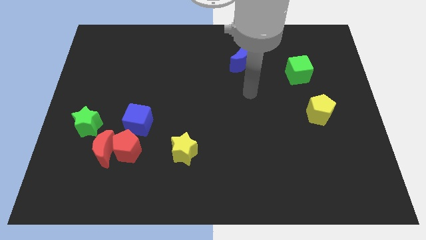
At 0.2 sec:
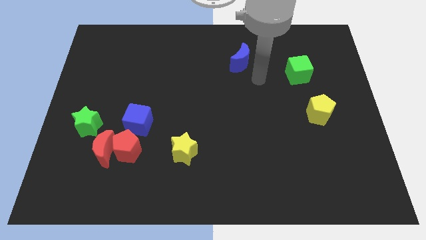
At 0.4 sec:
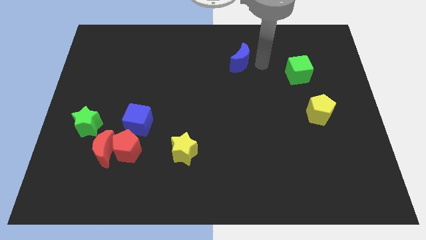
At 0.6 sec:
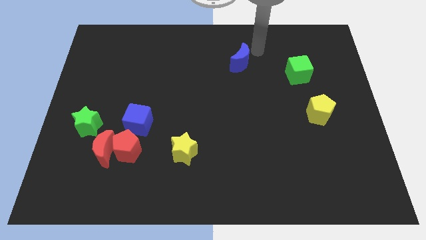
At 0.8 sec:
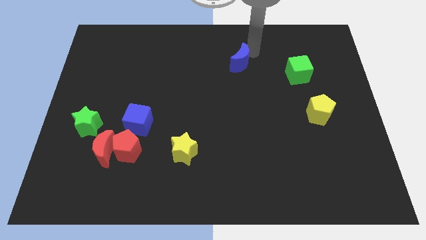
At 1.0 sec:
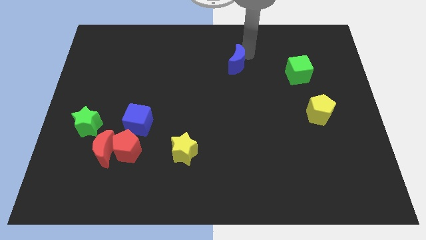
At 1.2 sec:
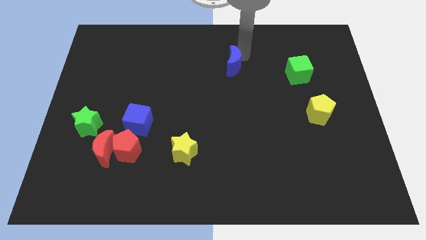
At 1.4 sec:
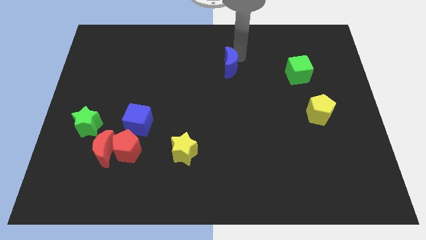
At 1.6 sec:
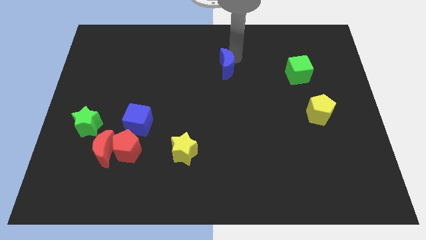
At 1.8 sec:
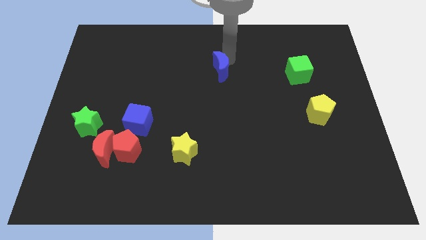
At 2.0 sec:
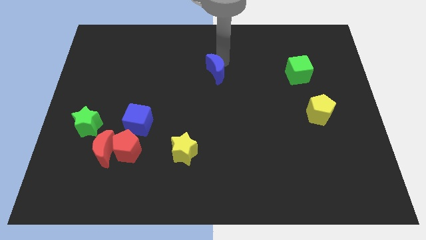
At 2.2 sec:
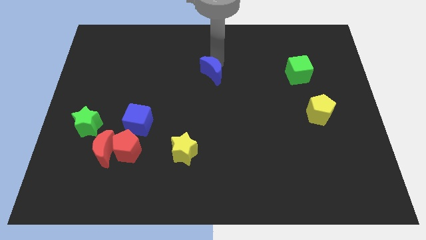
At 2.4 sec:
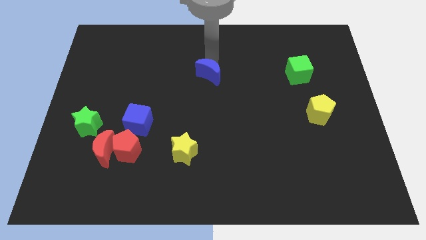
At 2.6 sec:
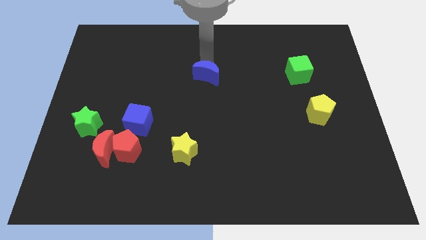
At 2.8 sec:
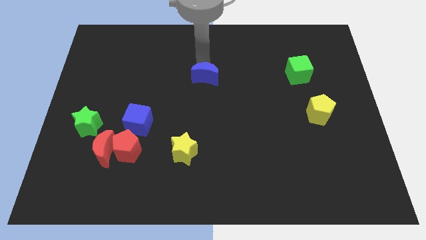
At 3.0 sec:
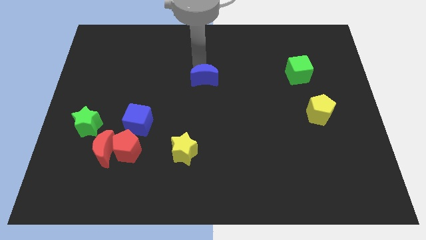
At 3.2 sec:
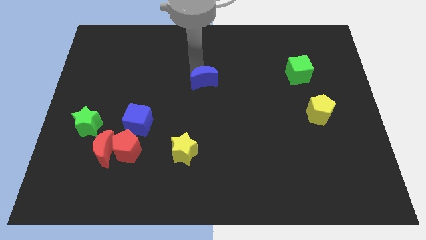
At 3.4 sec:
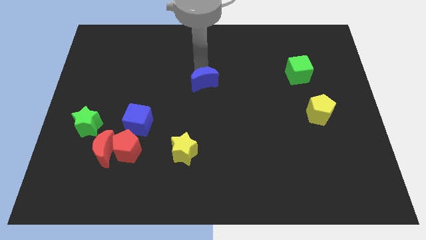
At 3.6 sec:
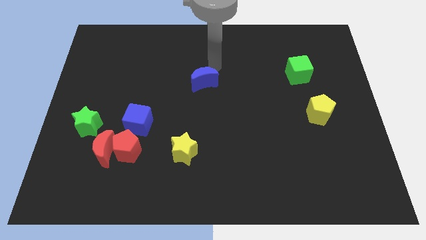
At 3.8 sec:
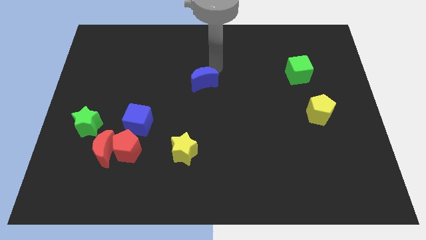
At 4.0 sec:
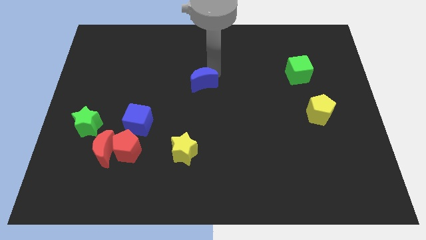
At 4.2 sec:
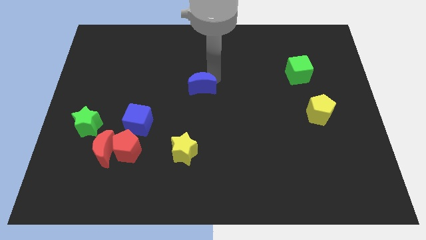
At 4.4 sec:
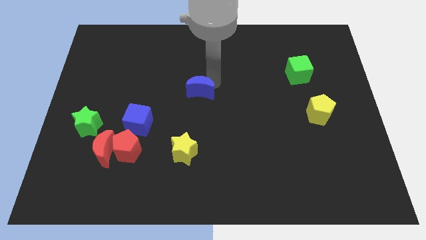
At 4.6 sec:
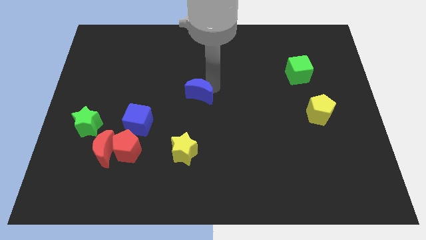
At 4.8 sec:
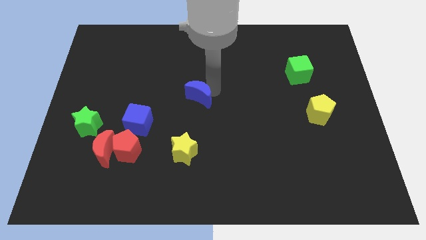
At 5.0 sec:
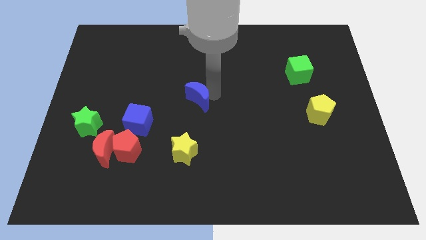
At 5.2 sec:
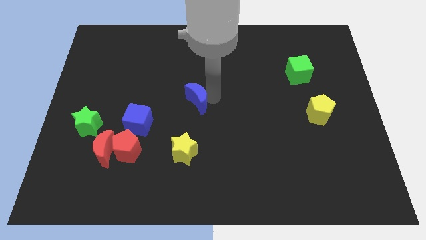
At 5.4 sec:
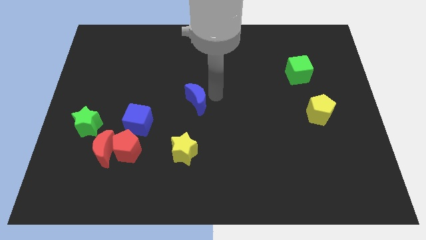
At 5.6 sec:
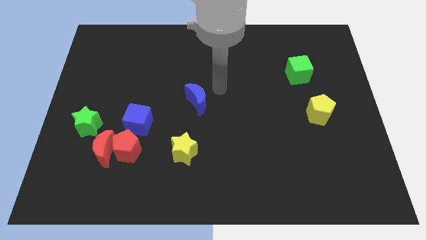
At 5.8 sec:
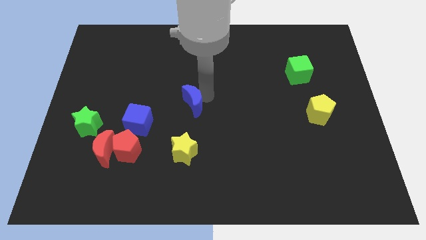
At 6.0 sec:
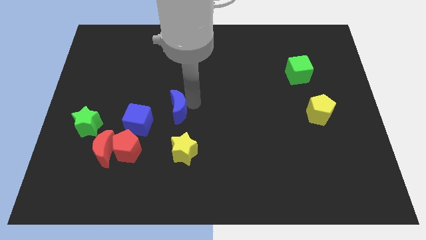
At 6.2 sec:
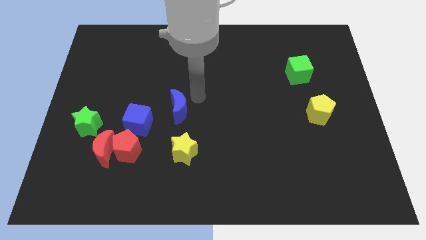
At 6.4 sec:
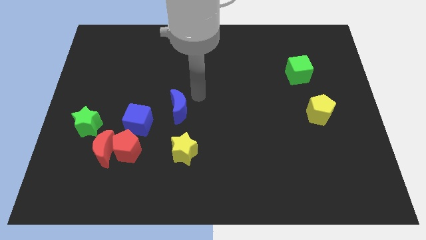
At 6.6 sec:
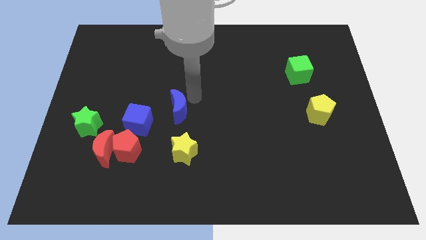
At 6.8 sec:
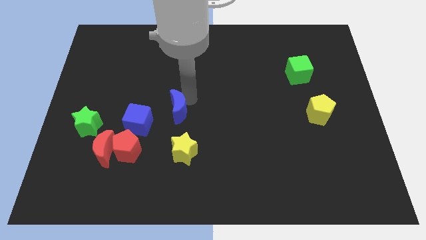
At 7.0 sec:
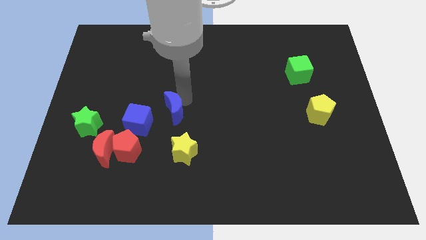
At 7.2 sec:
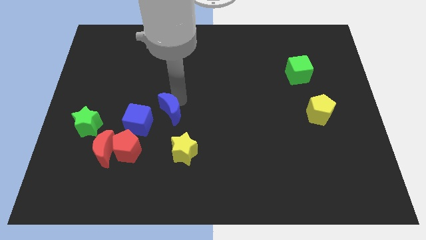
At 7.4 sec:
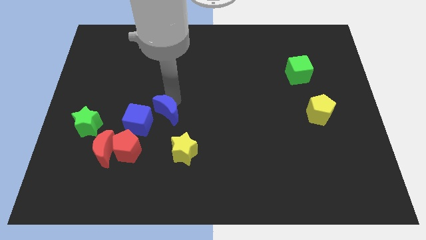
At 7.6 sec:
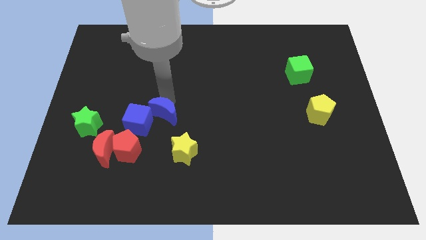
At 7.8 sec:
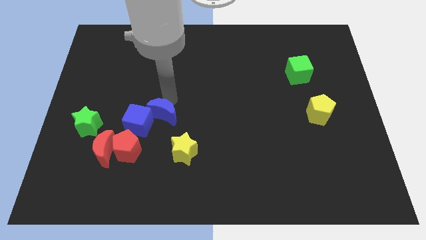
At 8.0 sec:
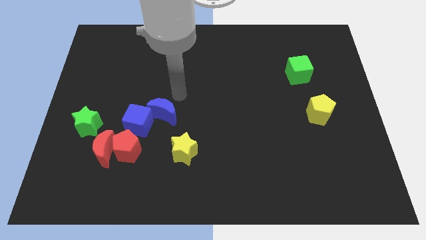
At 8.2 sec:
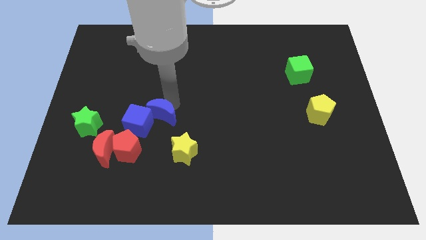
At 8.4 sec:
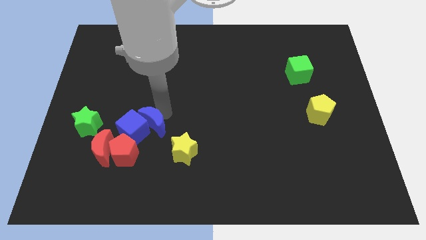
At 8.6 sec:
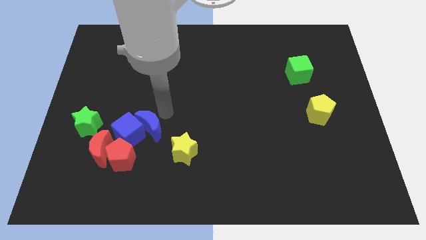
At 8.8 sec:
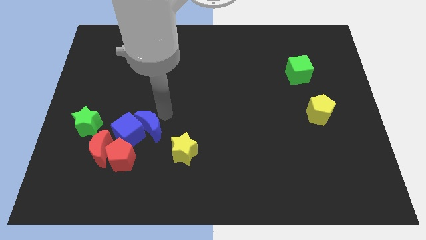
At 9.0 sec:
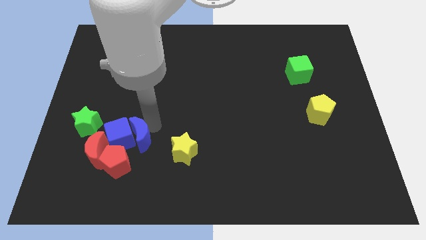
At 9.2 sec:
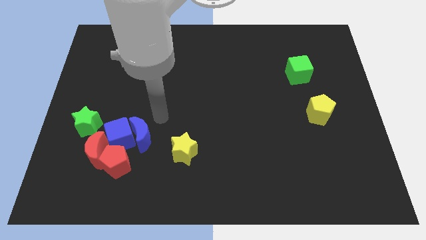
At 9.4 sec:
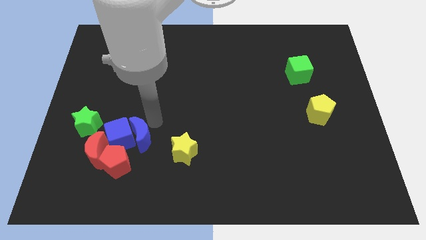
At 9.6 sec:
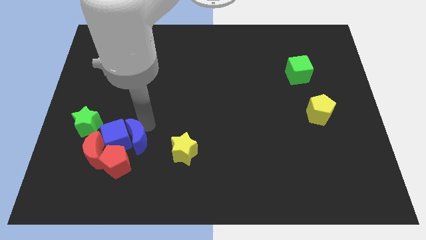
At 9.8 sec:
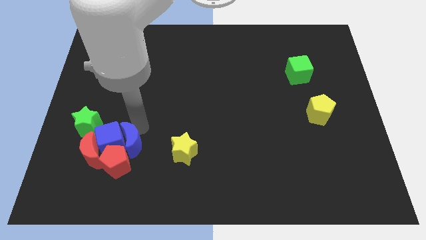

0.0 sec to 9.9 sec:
push the blue moon towards the red pentagon

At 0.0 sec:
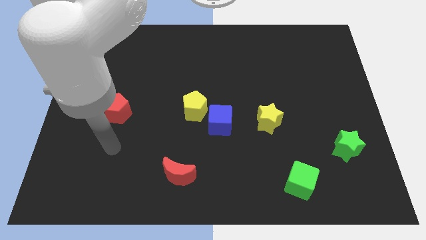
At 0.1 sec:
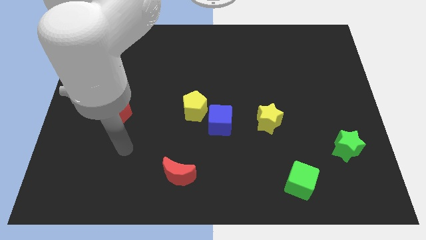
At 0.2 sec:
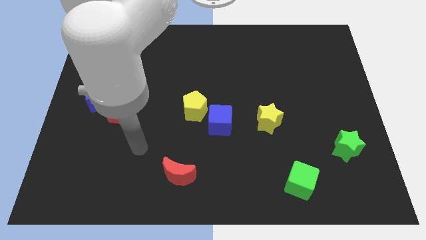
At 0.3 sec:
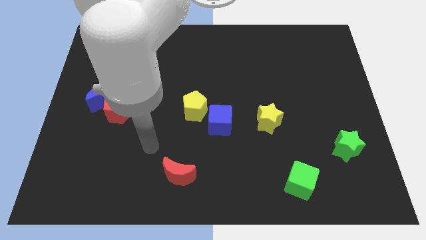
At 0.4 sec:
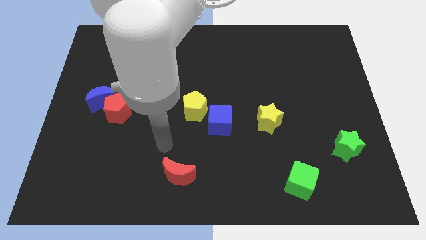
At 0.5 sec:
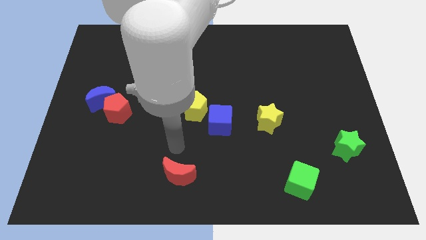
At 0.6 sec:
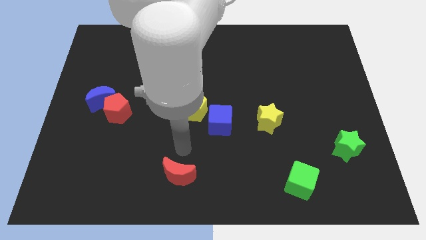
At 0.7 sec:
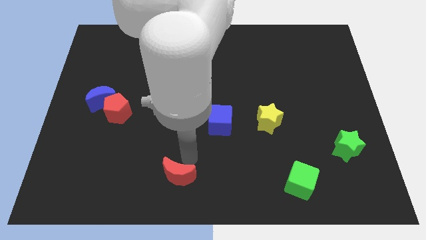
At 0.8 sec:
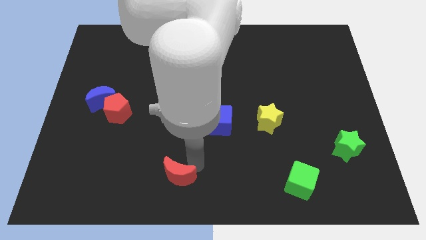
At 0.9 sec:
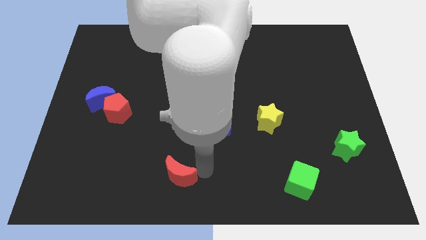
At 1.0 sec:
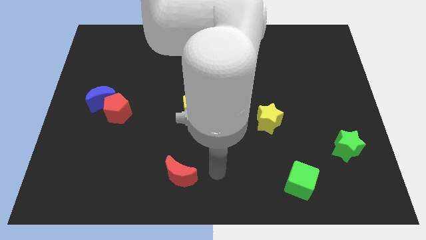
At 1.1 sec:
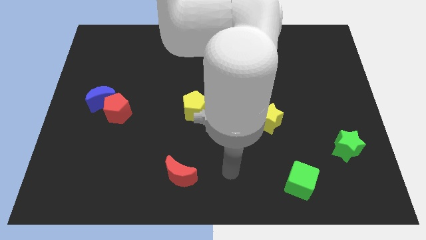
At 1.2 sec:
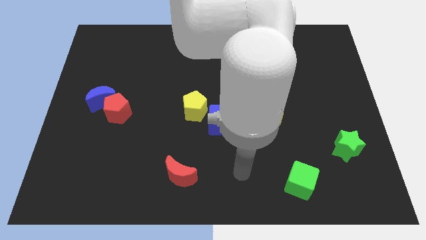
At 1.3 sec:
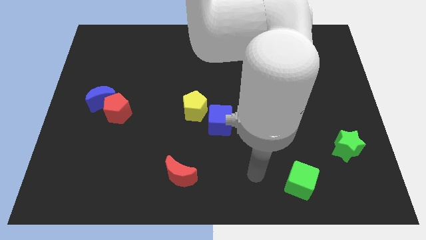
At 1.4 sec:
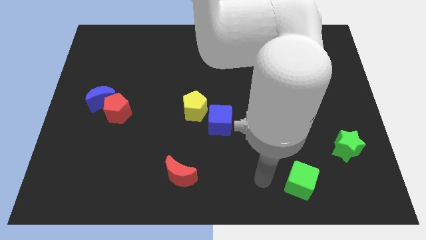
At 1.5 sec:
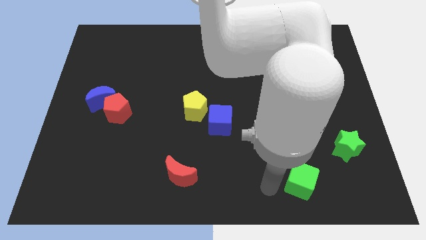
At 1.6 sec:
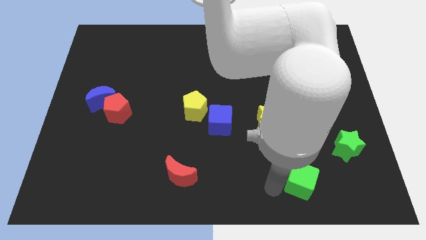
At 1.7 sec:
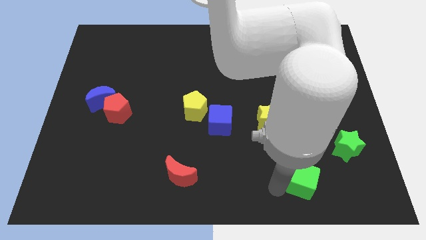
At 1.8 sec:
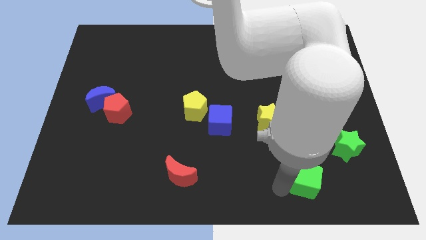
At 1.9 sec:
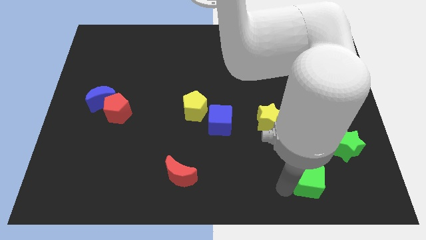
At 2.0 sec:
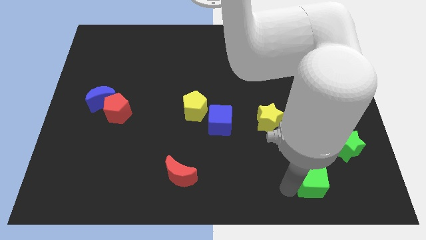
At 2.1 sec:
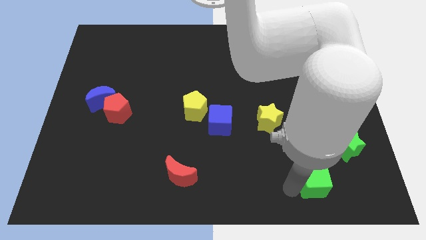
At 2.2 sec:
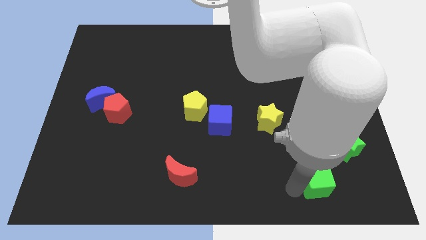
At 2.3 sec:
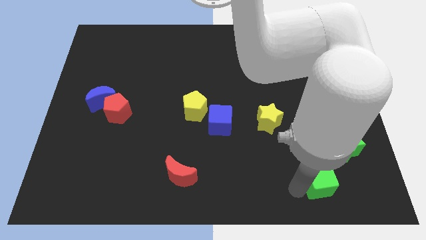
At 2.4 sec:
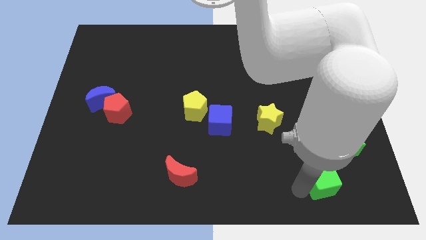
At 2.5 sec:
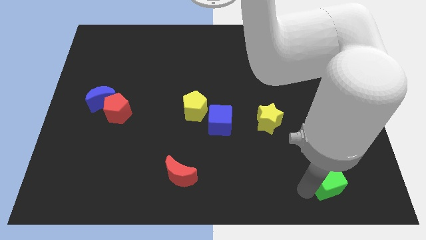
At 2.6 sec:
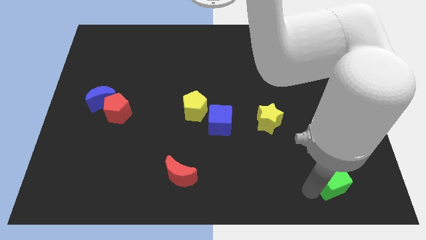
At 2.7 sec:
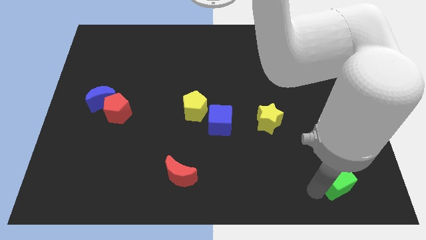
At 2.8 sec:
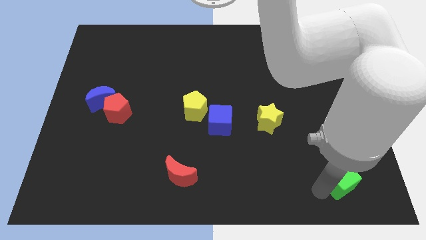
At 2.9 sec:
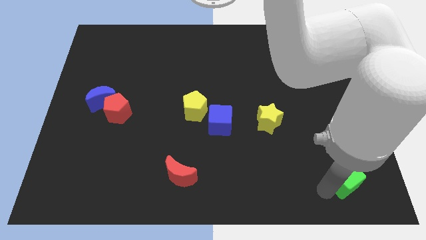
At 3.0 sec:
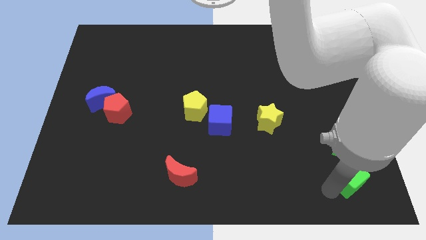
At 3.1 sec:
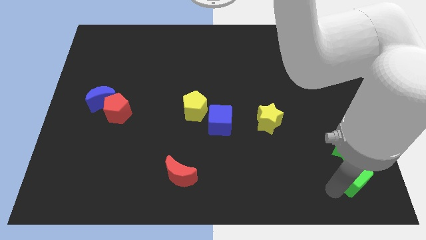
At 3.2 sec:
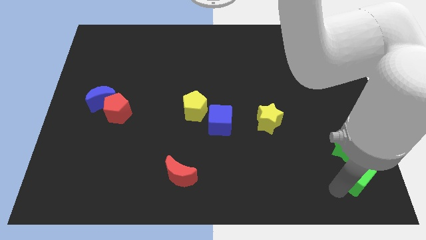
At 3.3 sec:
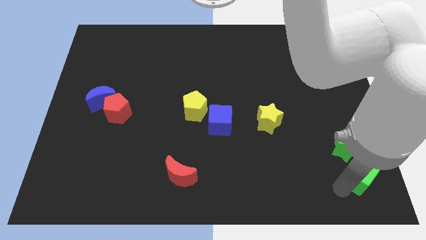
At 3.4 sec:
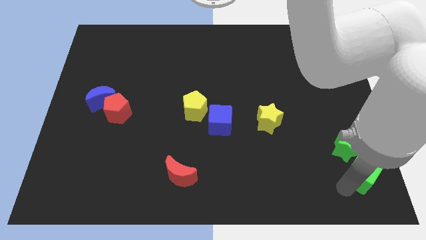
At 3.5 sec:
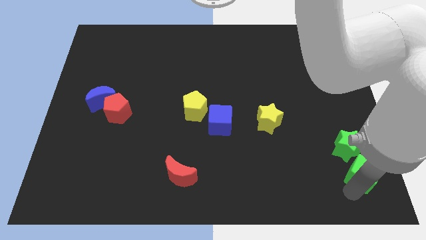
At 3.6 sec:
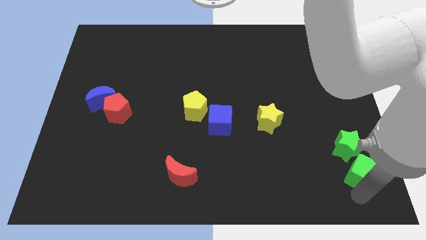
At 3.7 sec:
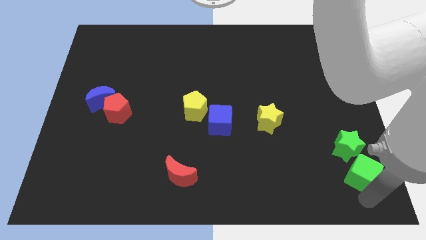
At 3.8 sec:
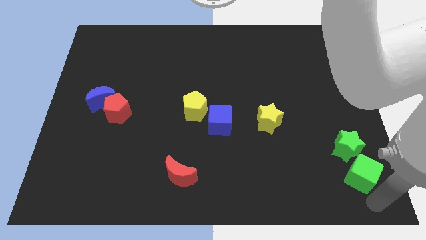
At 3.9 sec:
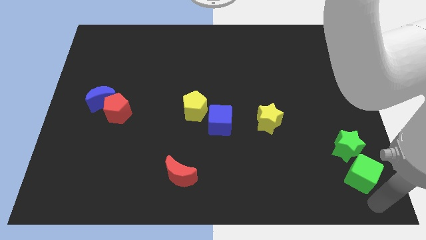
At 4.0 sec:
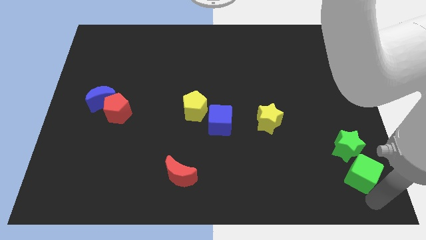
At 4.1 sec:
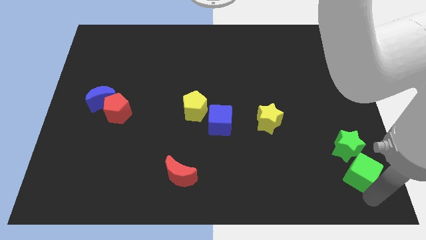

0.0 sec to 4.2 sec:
slide the green cube next to the green star
